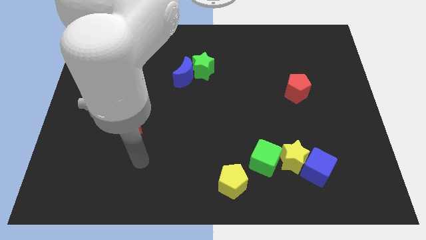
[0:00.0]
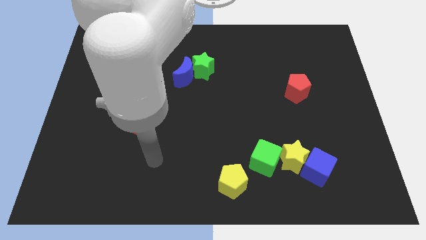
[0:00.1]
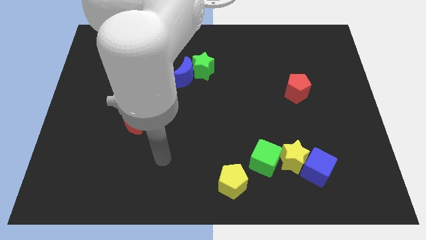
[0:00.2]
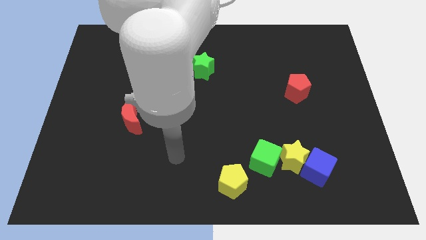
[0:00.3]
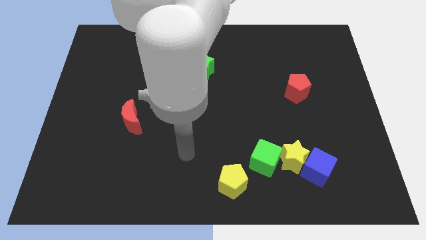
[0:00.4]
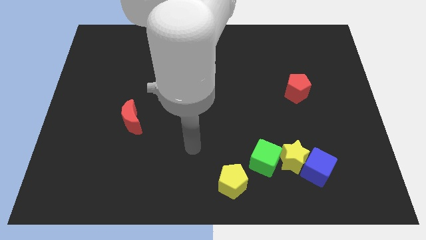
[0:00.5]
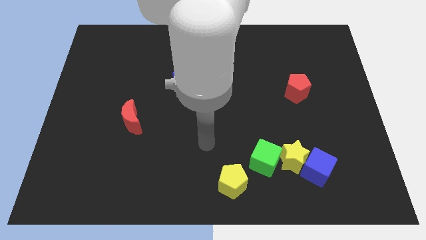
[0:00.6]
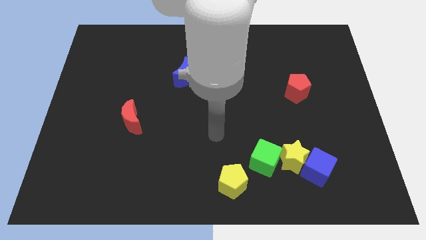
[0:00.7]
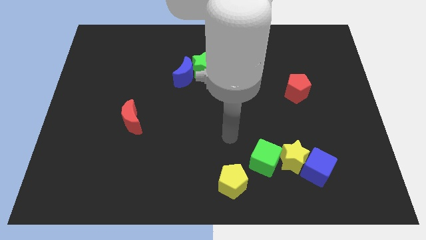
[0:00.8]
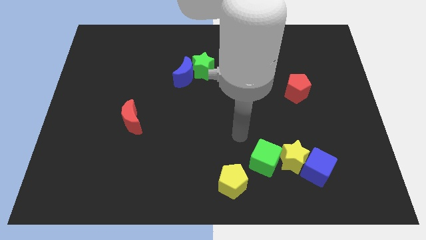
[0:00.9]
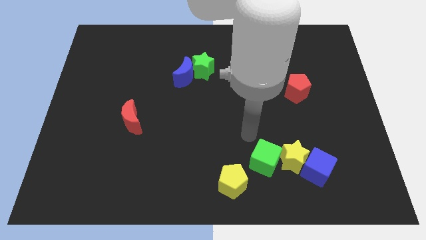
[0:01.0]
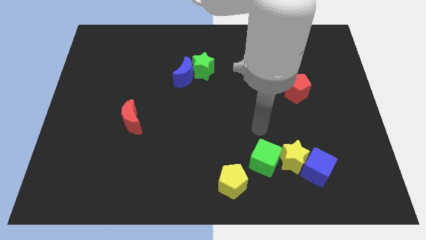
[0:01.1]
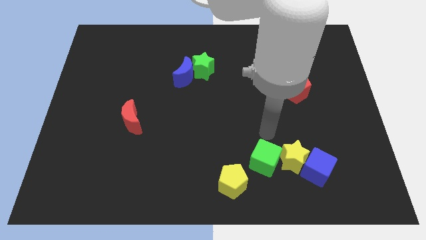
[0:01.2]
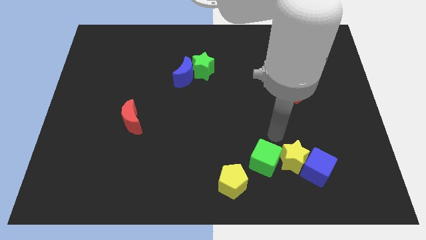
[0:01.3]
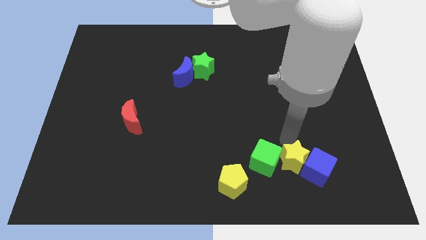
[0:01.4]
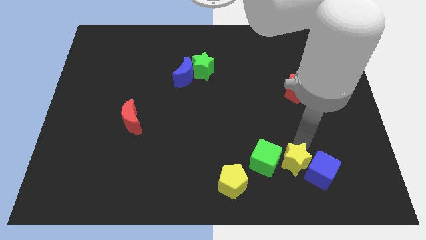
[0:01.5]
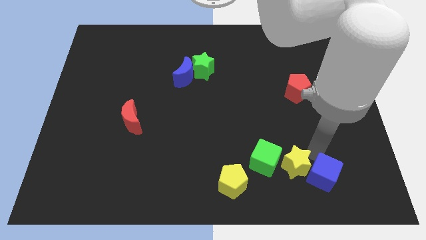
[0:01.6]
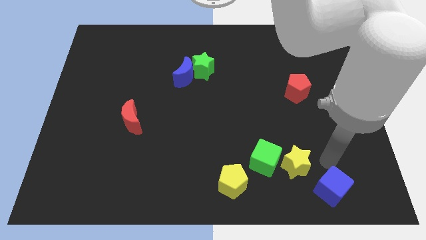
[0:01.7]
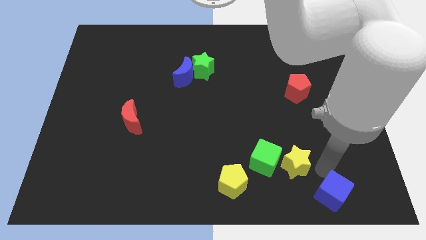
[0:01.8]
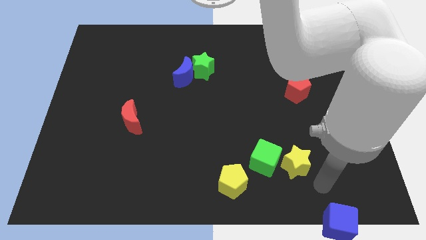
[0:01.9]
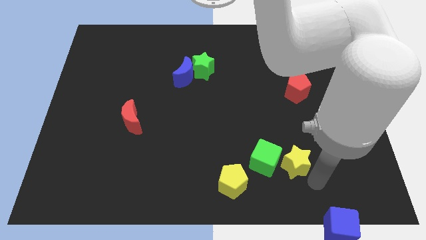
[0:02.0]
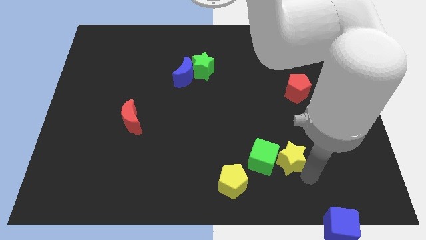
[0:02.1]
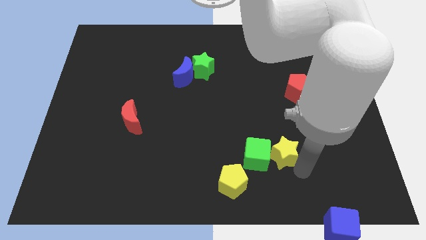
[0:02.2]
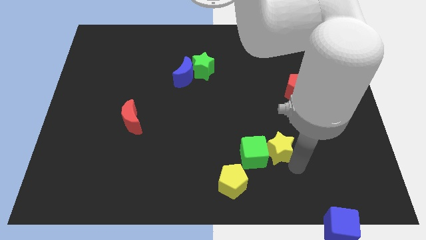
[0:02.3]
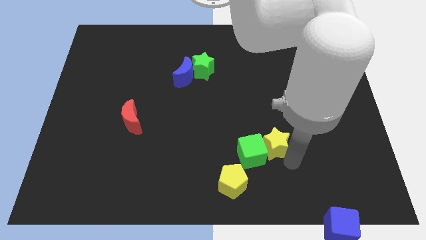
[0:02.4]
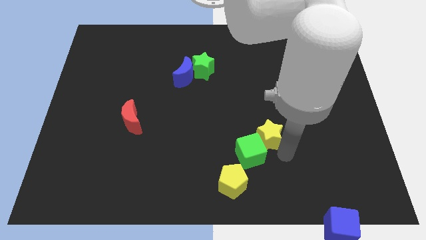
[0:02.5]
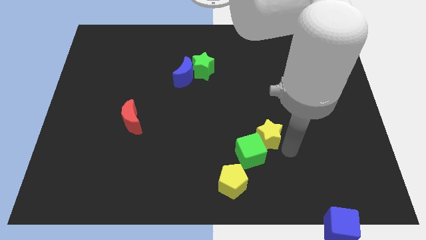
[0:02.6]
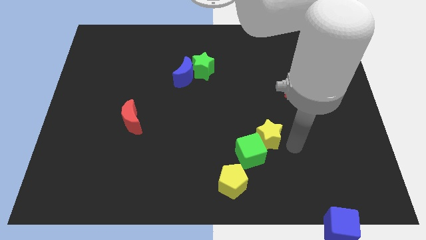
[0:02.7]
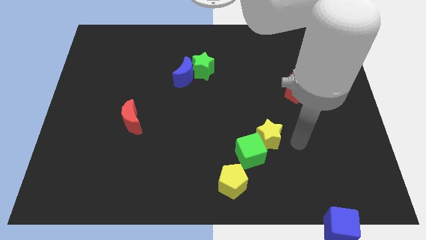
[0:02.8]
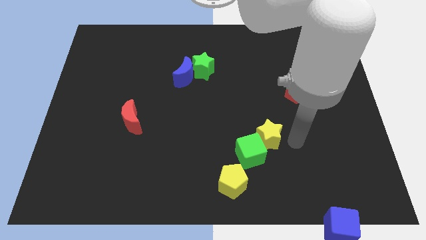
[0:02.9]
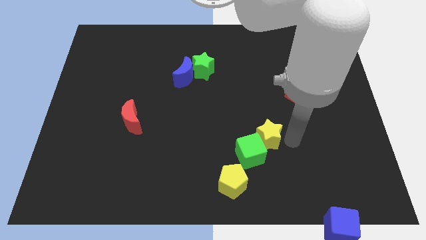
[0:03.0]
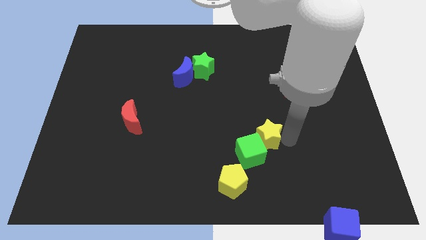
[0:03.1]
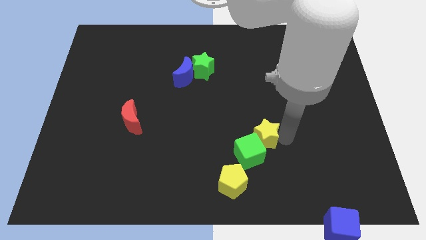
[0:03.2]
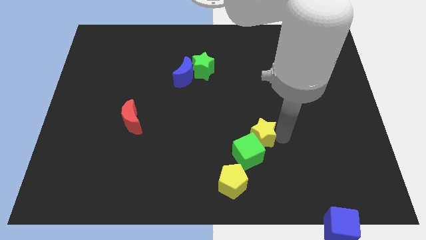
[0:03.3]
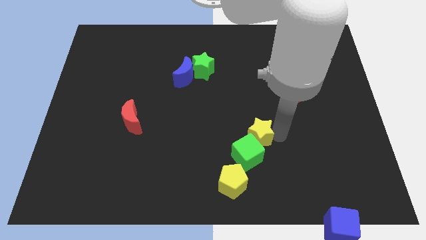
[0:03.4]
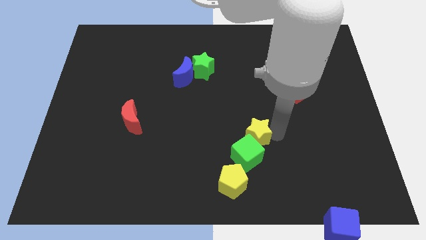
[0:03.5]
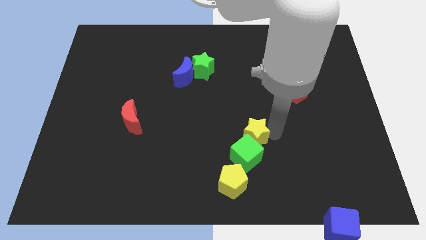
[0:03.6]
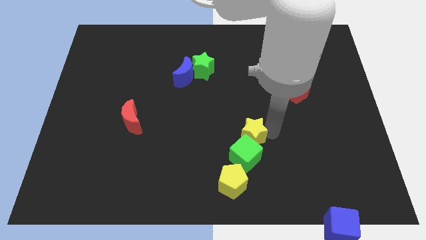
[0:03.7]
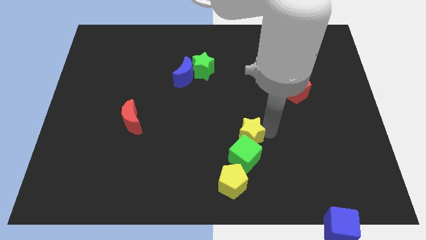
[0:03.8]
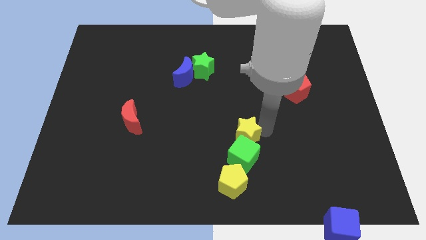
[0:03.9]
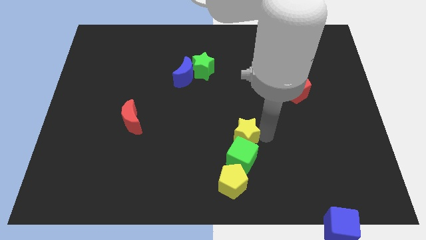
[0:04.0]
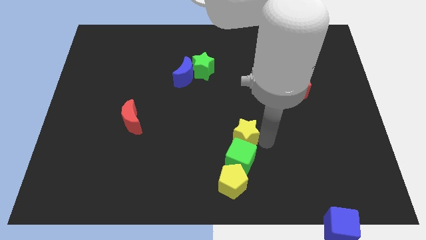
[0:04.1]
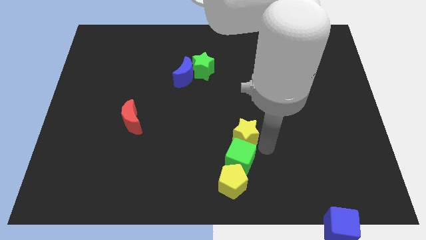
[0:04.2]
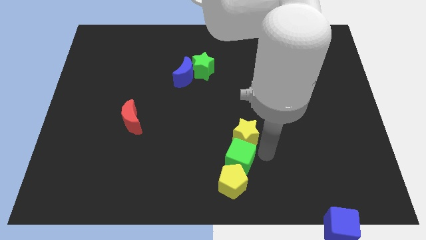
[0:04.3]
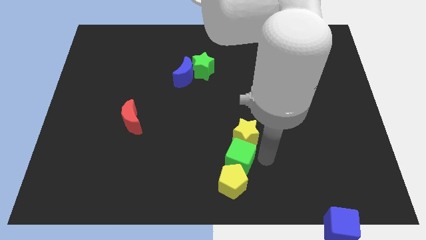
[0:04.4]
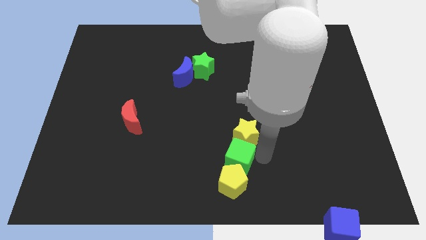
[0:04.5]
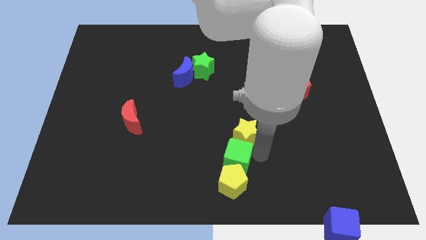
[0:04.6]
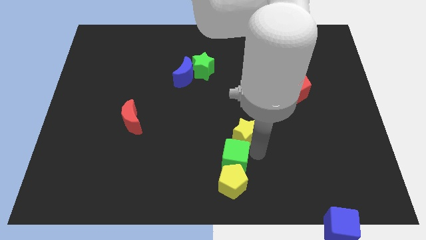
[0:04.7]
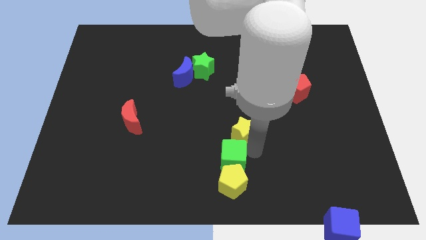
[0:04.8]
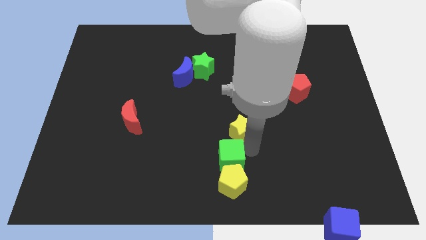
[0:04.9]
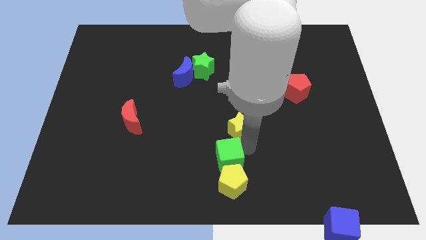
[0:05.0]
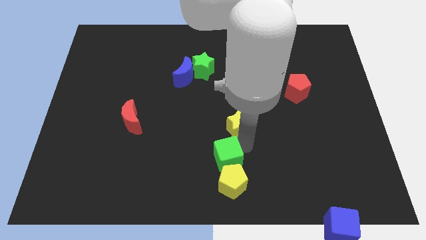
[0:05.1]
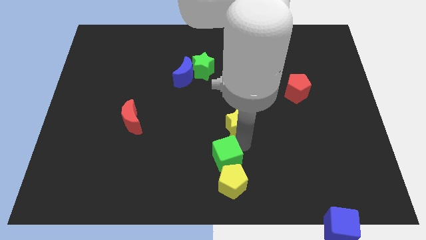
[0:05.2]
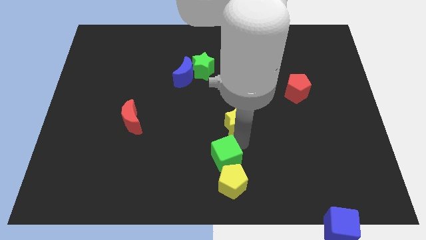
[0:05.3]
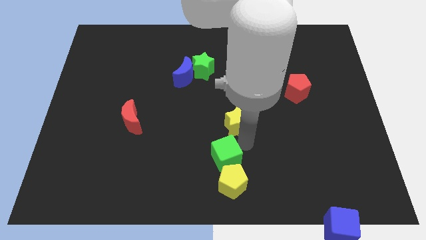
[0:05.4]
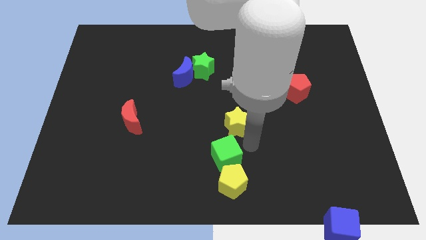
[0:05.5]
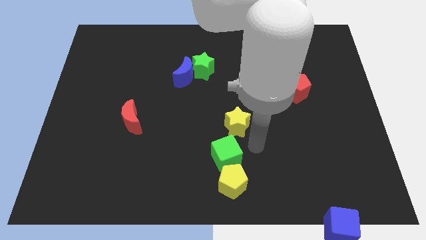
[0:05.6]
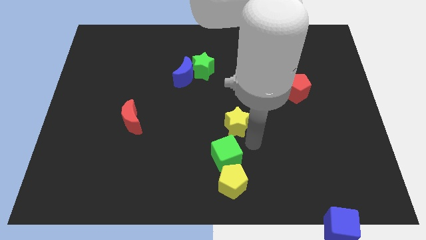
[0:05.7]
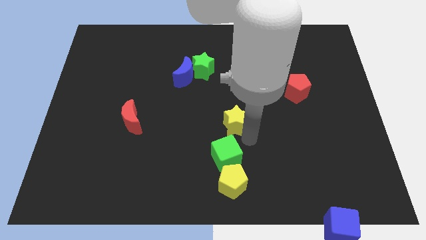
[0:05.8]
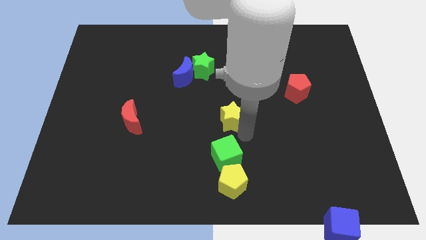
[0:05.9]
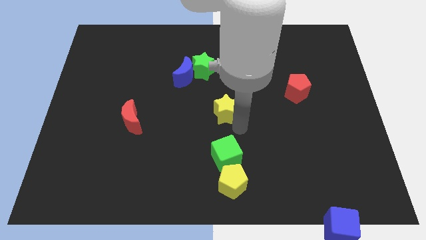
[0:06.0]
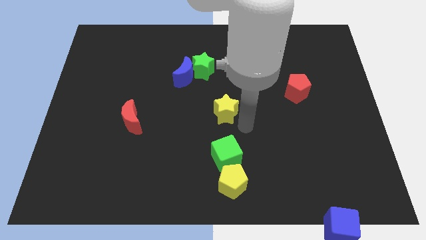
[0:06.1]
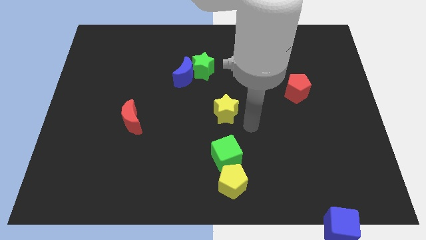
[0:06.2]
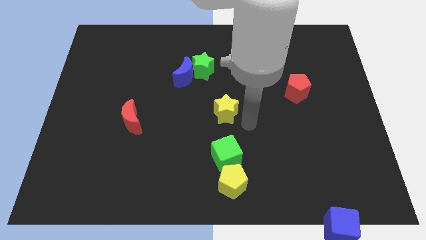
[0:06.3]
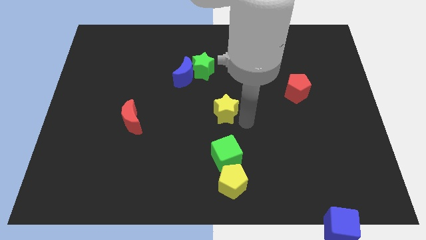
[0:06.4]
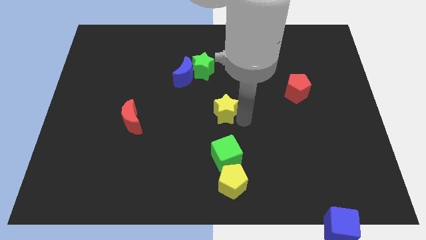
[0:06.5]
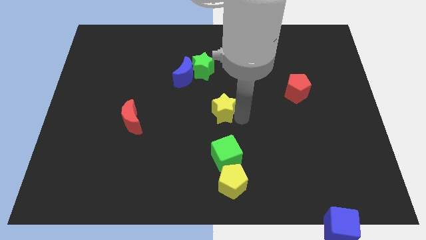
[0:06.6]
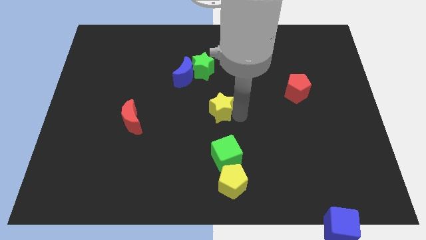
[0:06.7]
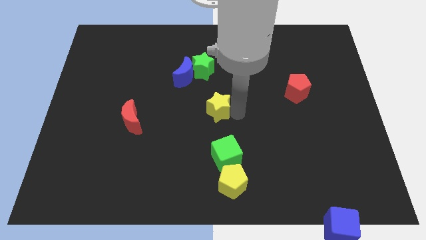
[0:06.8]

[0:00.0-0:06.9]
push the yellow star to the bottom of the green star

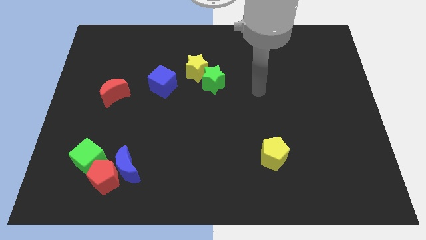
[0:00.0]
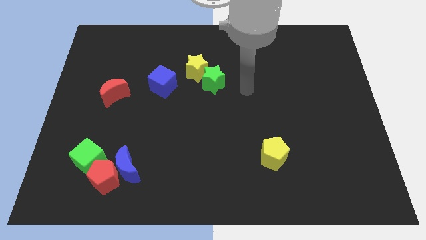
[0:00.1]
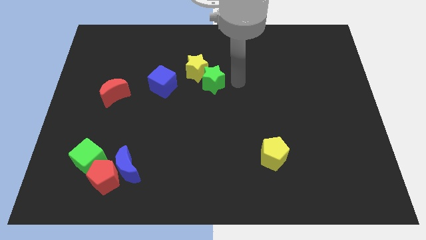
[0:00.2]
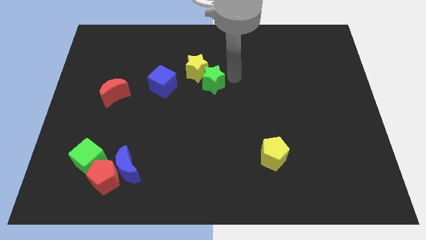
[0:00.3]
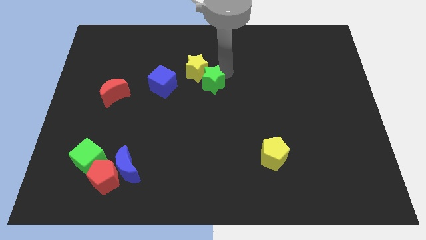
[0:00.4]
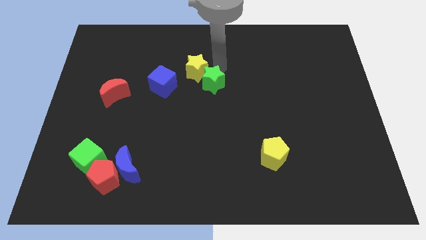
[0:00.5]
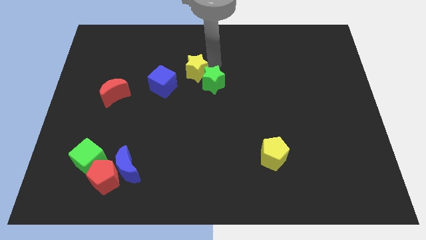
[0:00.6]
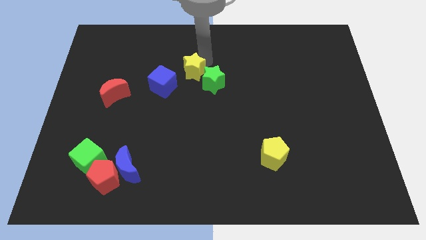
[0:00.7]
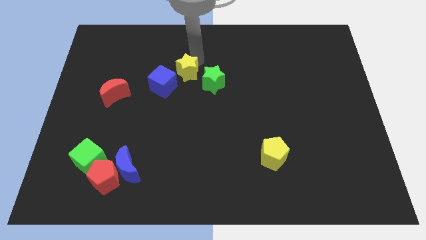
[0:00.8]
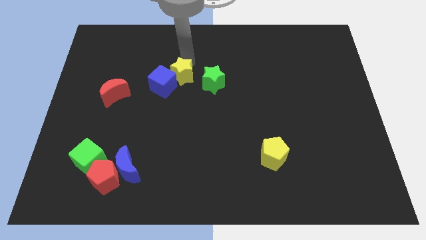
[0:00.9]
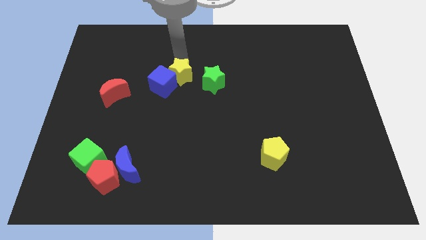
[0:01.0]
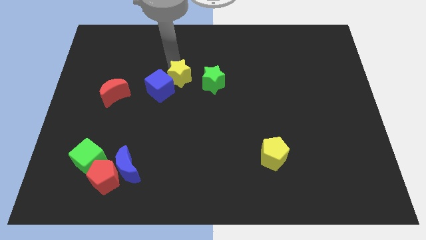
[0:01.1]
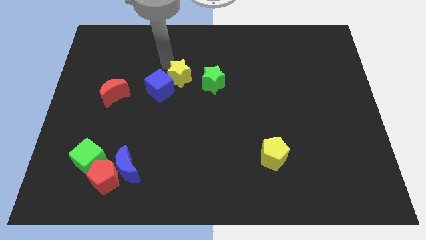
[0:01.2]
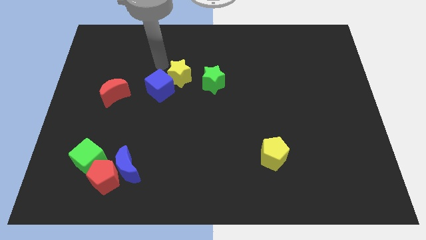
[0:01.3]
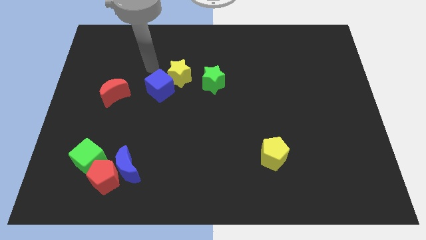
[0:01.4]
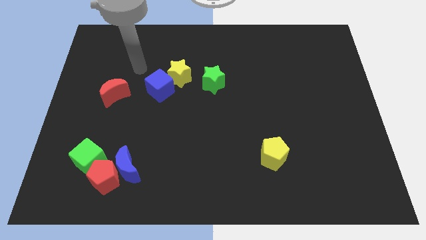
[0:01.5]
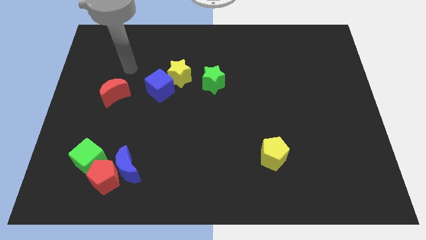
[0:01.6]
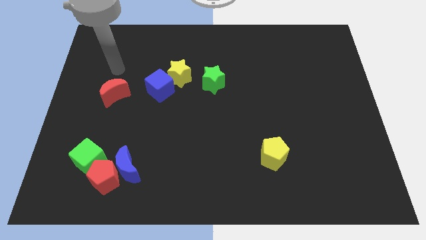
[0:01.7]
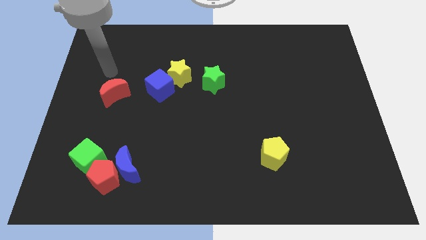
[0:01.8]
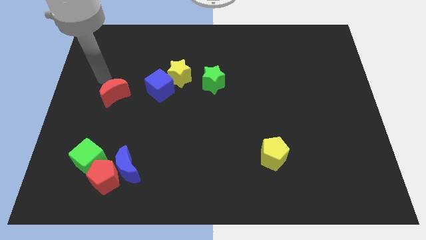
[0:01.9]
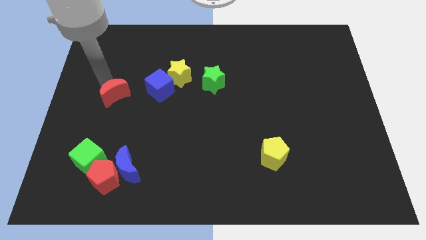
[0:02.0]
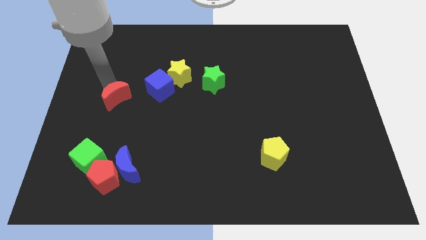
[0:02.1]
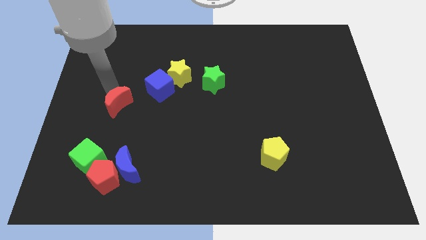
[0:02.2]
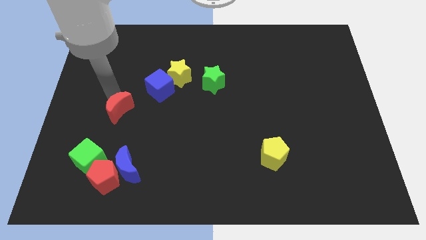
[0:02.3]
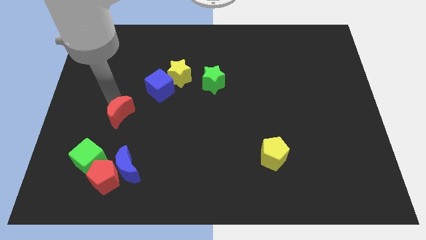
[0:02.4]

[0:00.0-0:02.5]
push the red moon to the top of the blue moon
